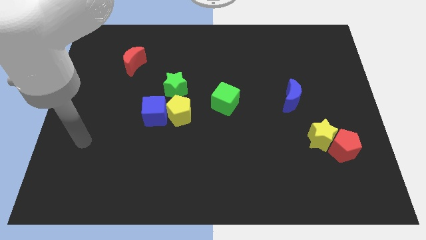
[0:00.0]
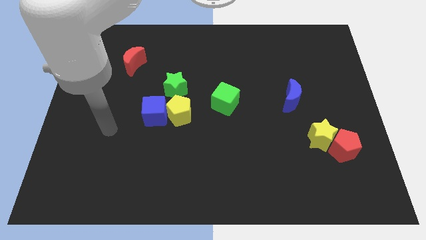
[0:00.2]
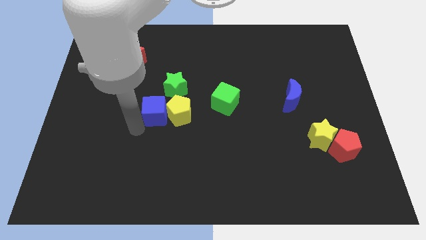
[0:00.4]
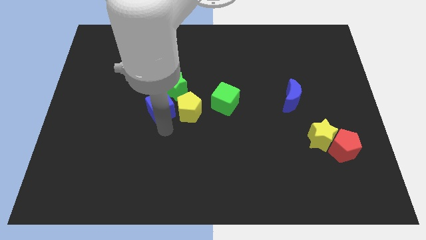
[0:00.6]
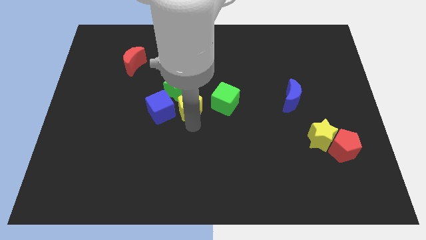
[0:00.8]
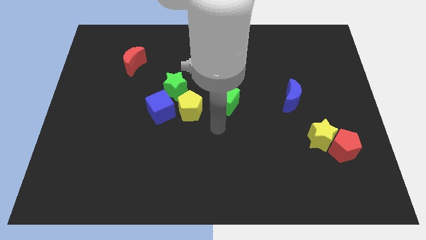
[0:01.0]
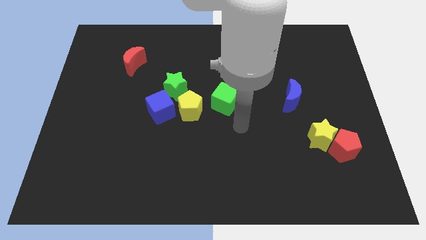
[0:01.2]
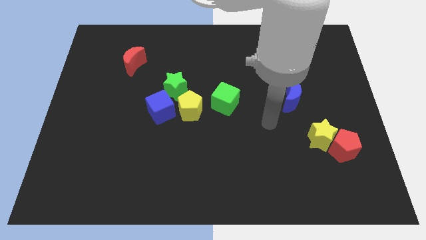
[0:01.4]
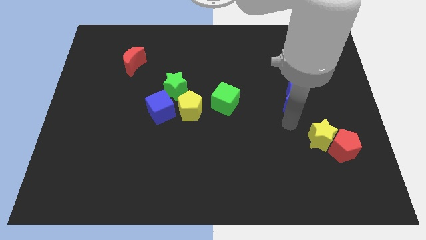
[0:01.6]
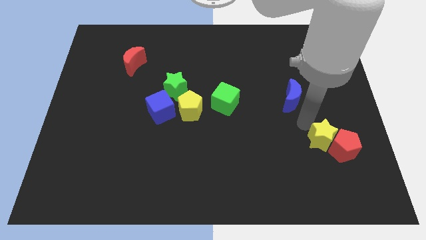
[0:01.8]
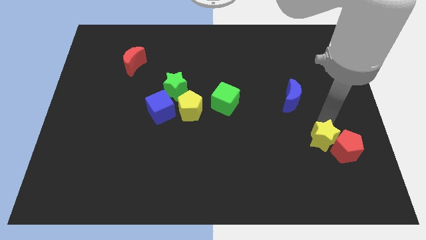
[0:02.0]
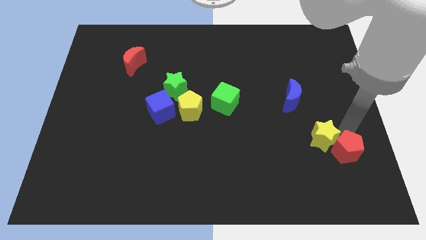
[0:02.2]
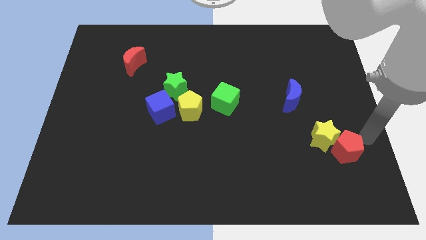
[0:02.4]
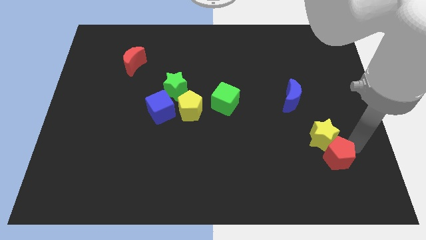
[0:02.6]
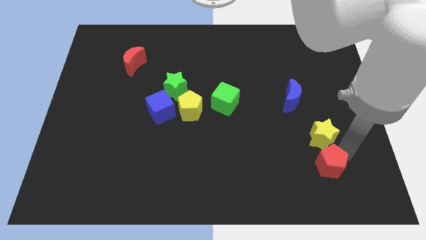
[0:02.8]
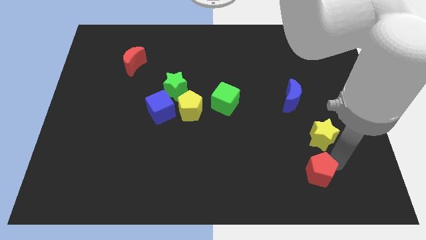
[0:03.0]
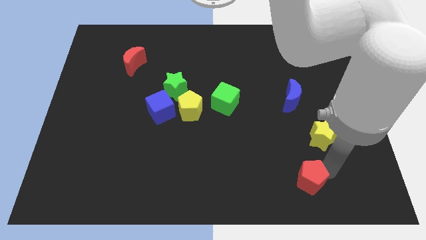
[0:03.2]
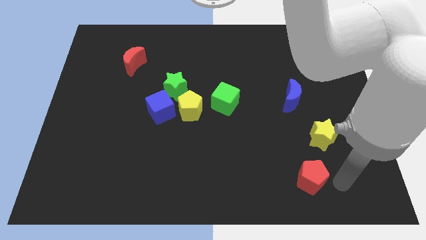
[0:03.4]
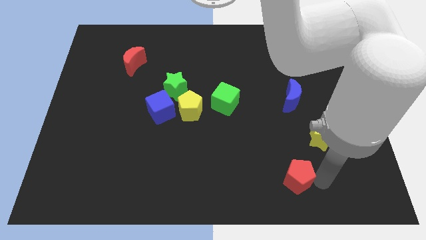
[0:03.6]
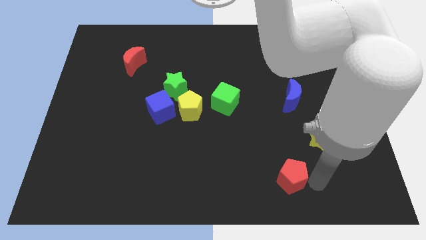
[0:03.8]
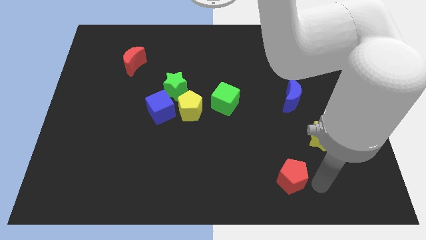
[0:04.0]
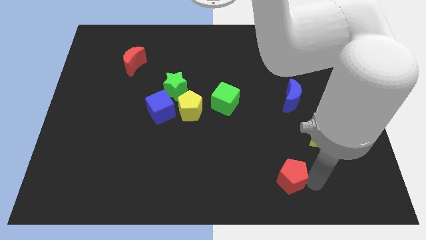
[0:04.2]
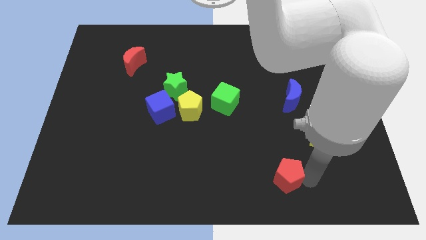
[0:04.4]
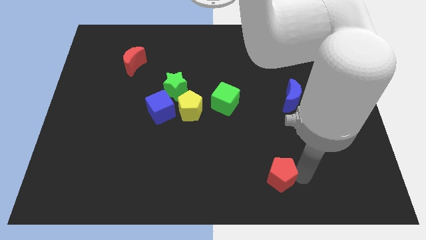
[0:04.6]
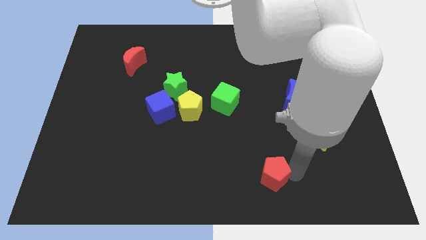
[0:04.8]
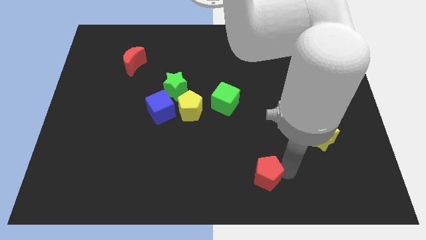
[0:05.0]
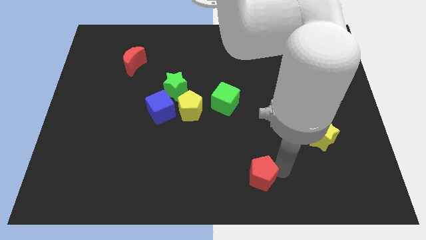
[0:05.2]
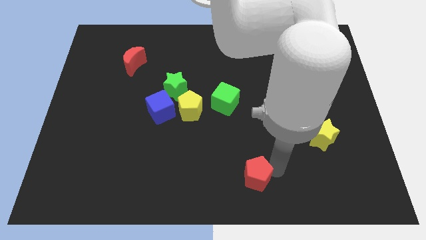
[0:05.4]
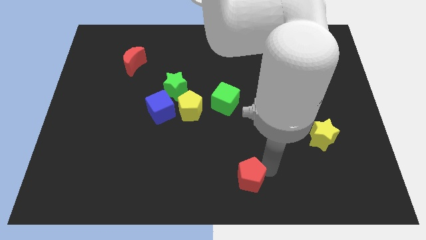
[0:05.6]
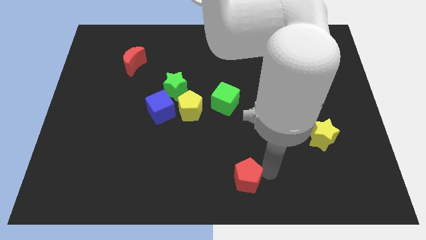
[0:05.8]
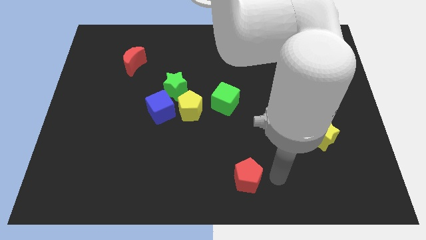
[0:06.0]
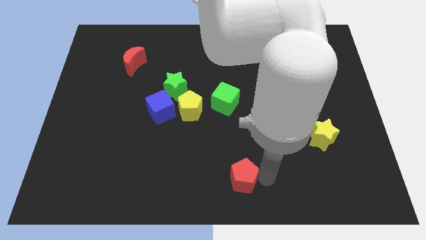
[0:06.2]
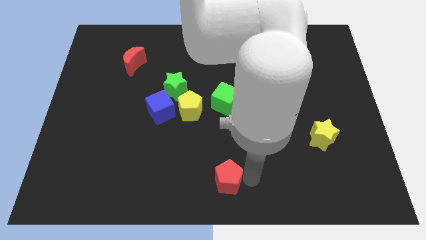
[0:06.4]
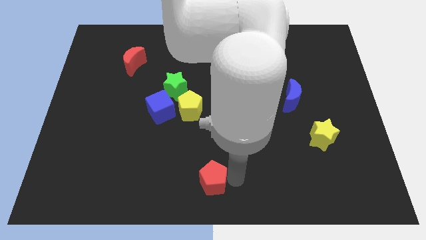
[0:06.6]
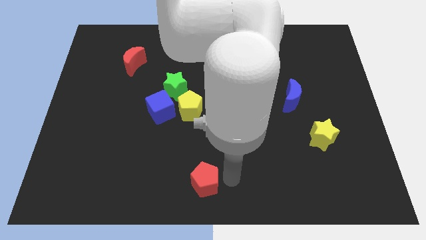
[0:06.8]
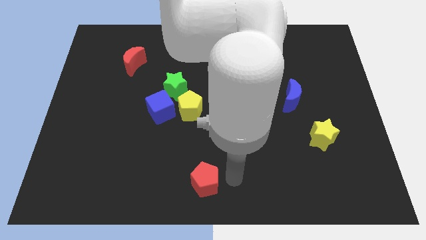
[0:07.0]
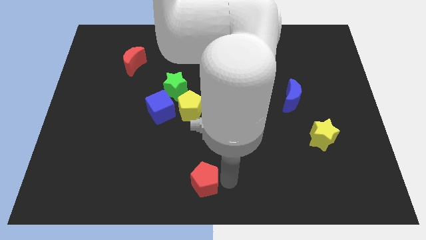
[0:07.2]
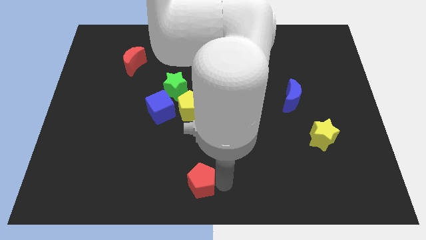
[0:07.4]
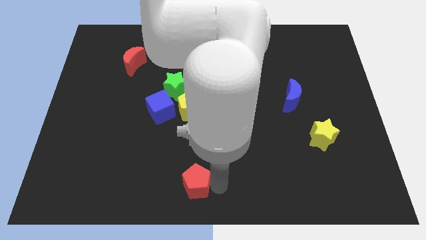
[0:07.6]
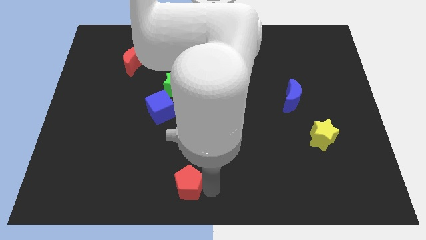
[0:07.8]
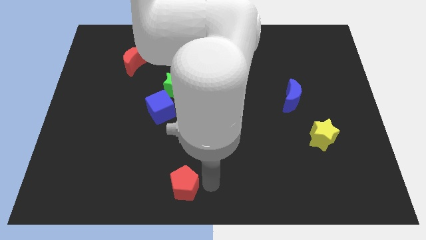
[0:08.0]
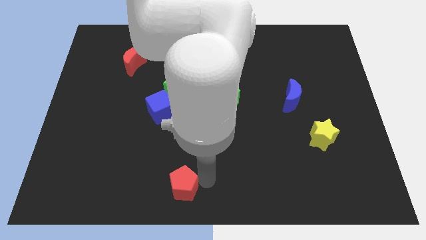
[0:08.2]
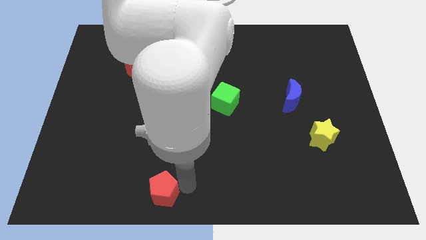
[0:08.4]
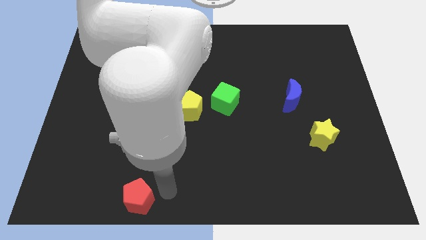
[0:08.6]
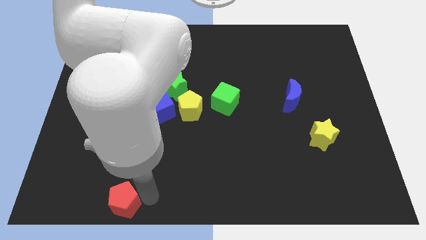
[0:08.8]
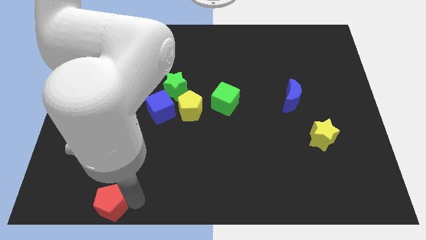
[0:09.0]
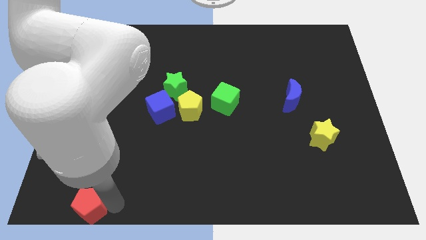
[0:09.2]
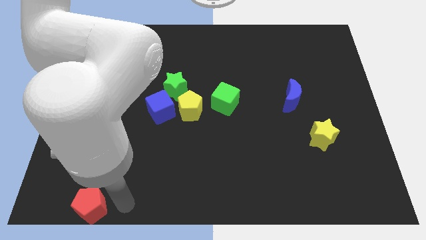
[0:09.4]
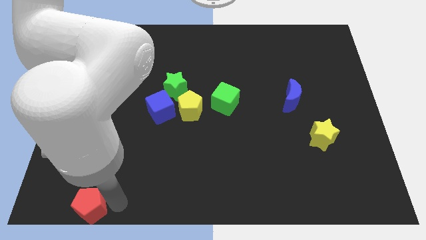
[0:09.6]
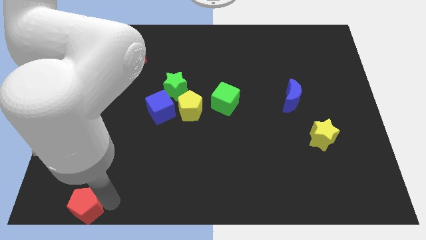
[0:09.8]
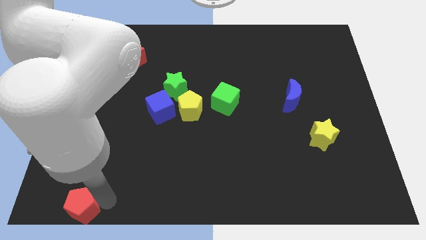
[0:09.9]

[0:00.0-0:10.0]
push the red pentagon to the bottom left corner

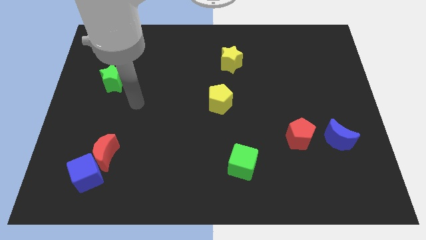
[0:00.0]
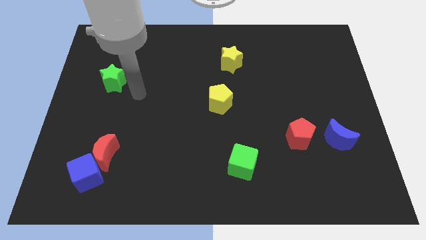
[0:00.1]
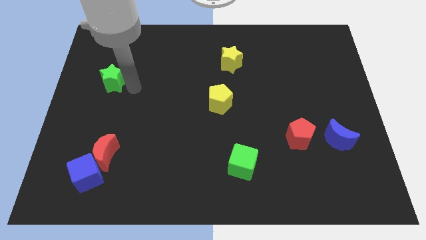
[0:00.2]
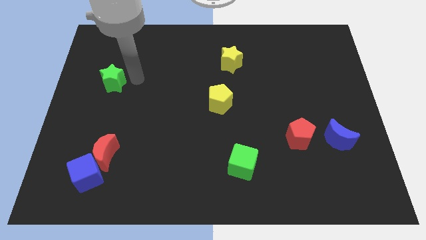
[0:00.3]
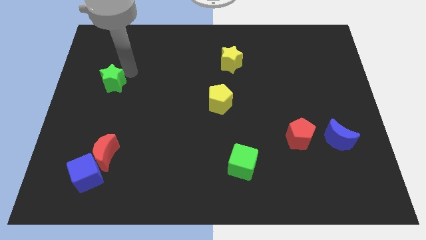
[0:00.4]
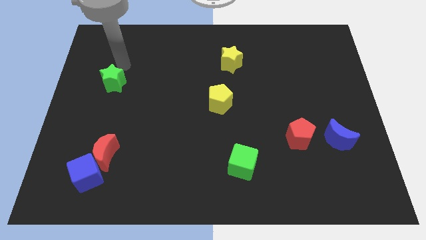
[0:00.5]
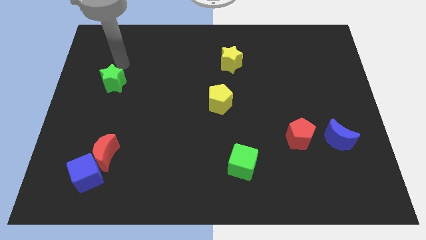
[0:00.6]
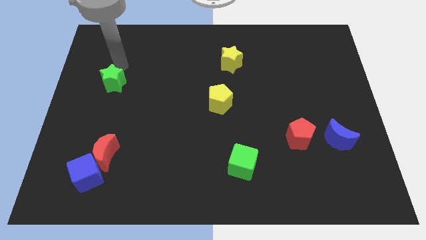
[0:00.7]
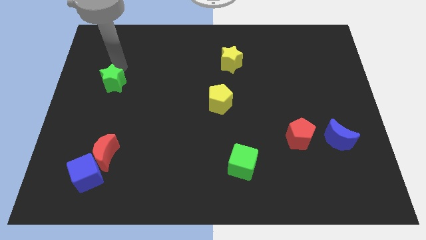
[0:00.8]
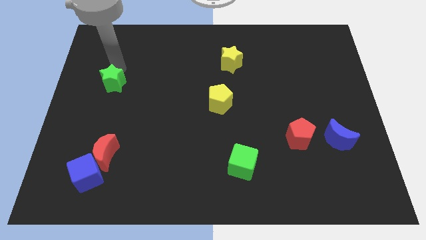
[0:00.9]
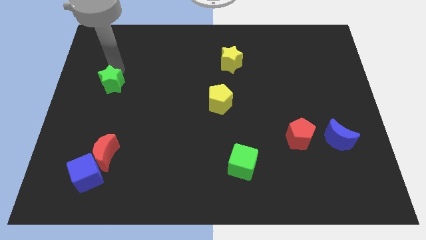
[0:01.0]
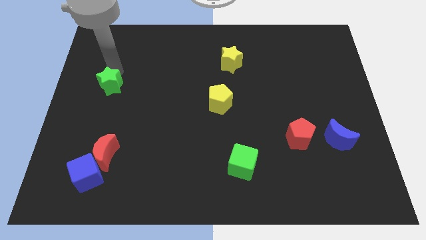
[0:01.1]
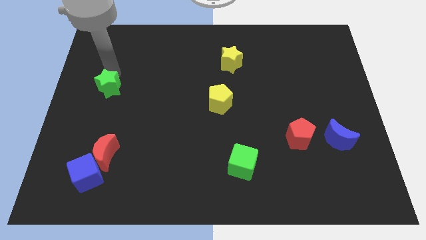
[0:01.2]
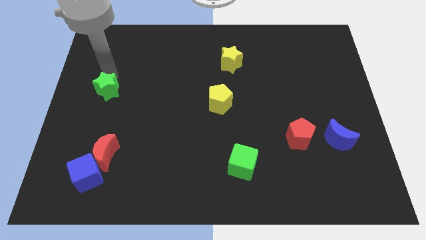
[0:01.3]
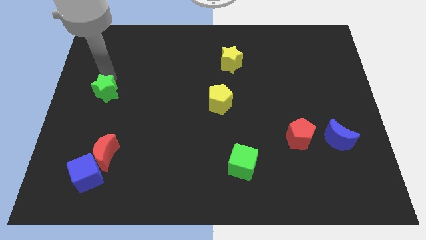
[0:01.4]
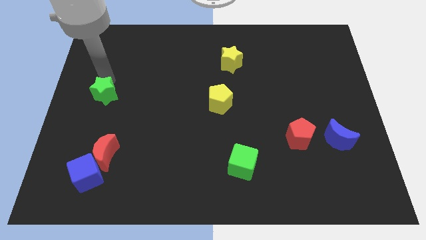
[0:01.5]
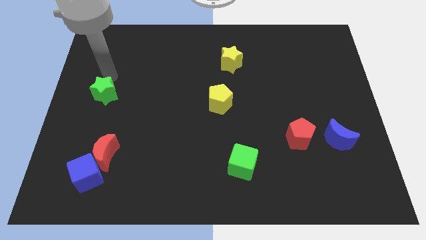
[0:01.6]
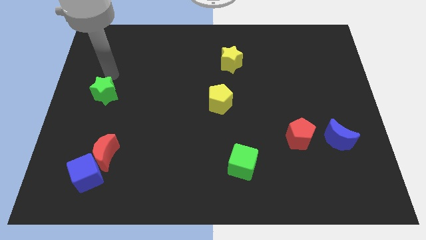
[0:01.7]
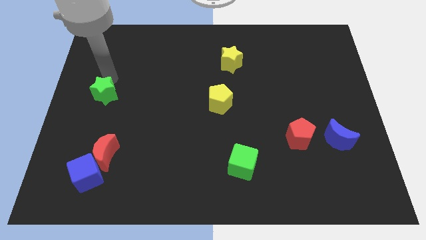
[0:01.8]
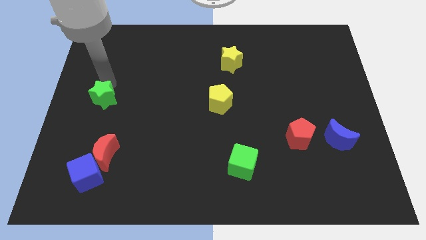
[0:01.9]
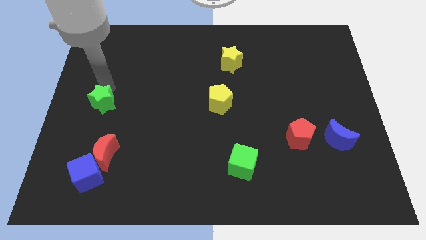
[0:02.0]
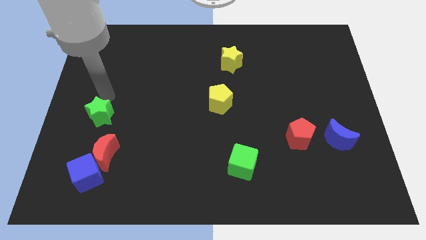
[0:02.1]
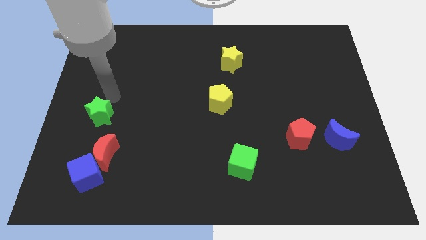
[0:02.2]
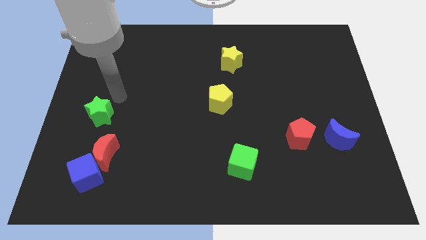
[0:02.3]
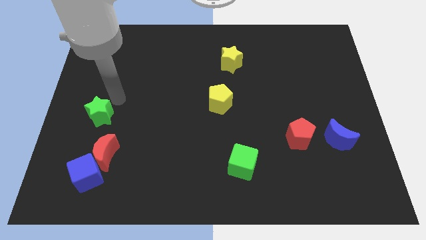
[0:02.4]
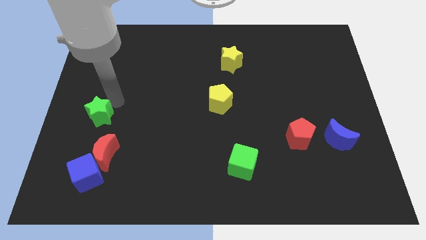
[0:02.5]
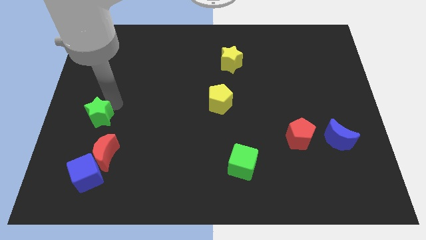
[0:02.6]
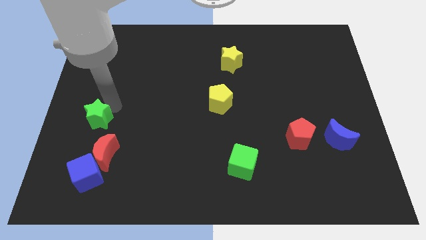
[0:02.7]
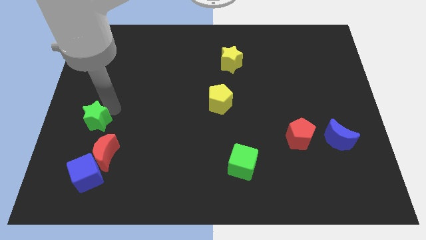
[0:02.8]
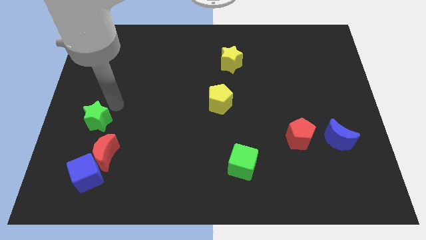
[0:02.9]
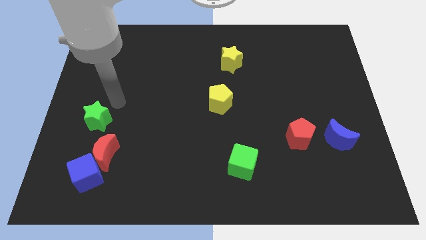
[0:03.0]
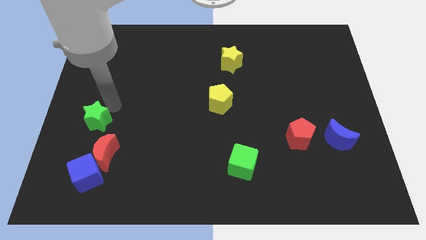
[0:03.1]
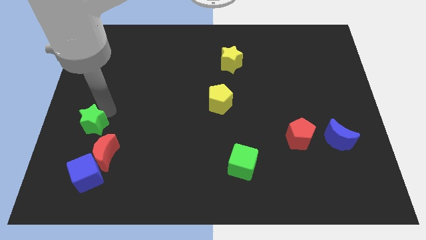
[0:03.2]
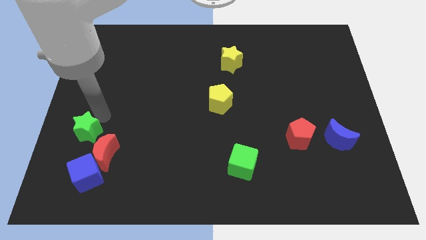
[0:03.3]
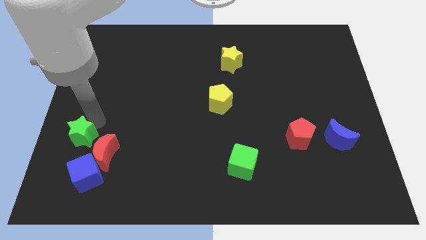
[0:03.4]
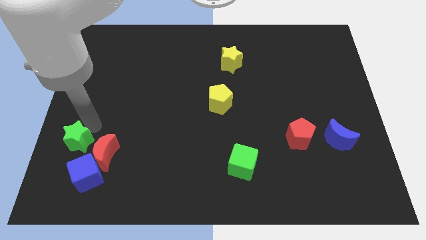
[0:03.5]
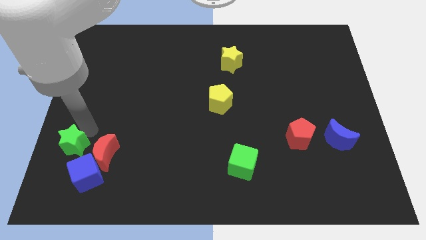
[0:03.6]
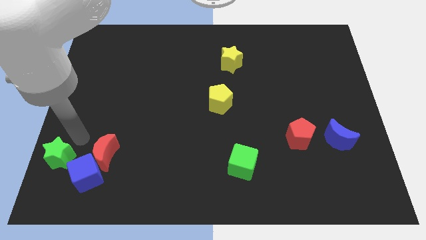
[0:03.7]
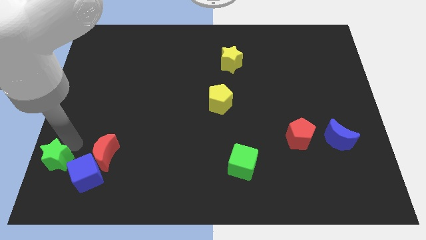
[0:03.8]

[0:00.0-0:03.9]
move the green star to the bottom left corner
